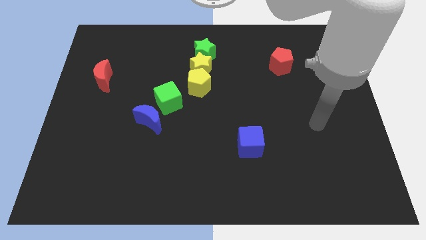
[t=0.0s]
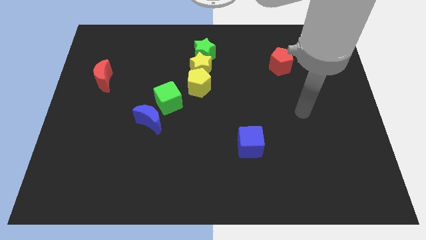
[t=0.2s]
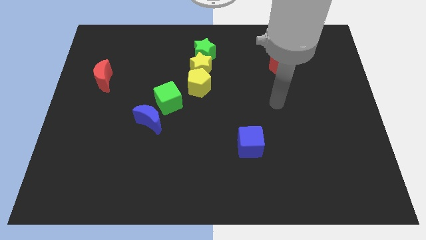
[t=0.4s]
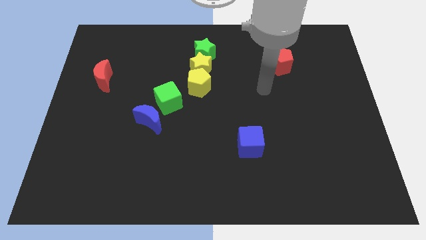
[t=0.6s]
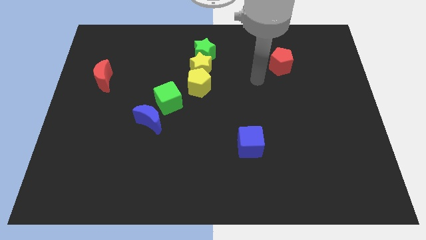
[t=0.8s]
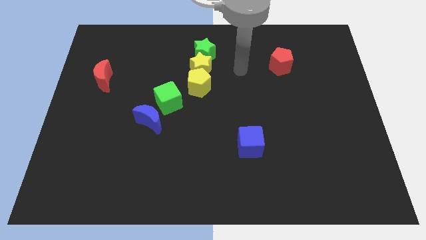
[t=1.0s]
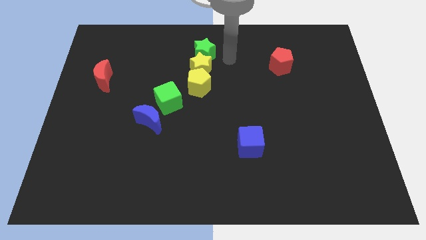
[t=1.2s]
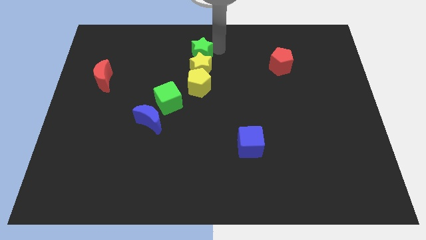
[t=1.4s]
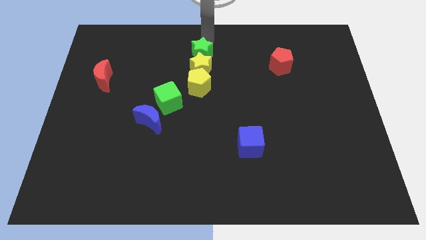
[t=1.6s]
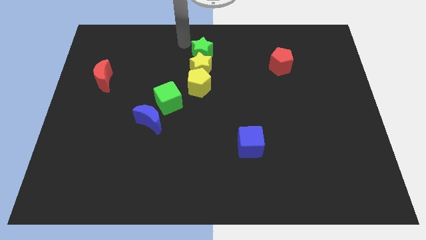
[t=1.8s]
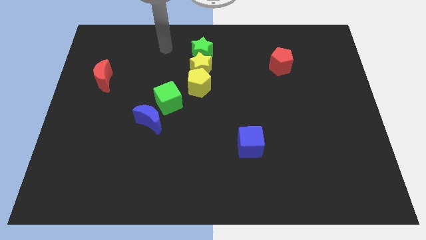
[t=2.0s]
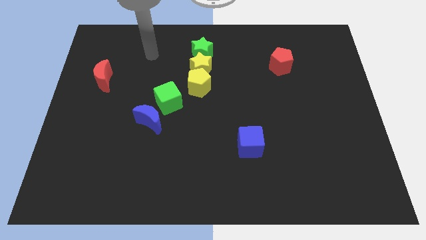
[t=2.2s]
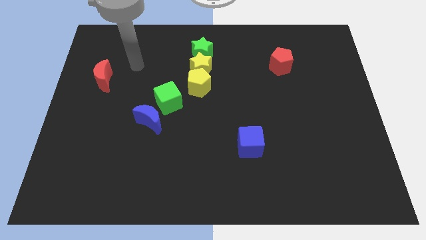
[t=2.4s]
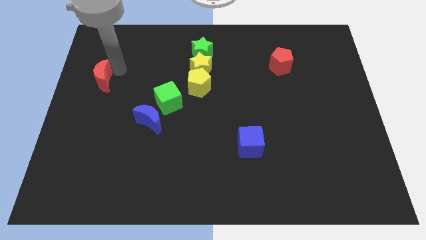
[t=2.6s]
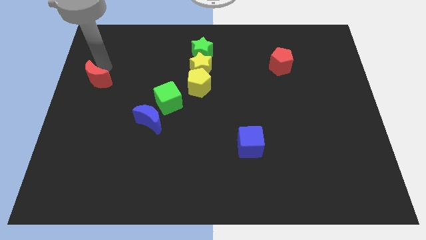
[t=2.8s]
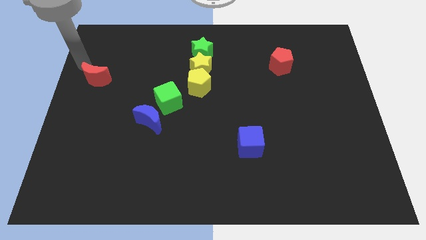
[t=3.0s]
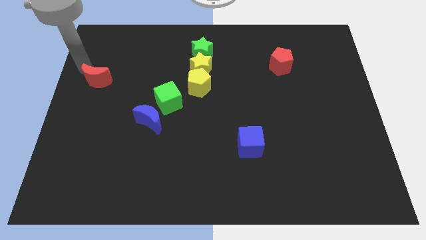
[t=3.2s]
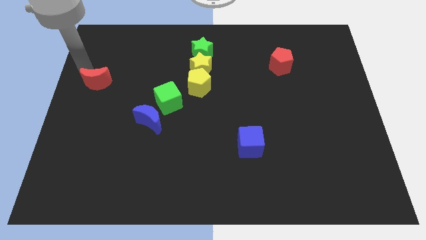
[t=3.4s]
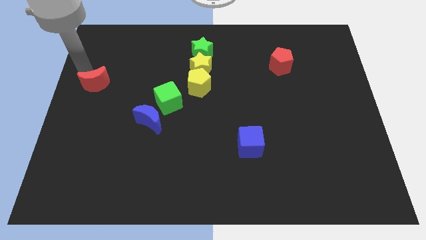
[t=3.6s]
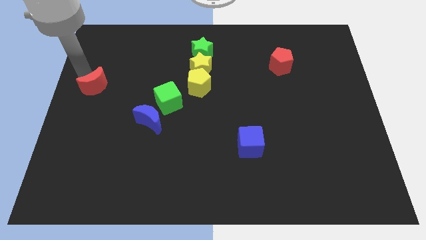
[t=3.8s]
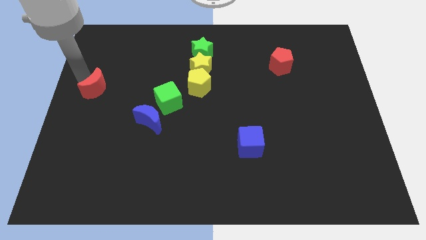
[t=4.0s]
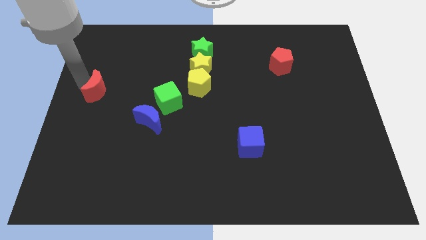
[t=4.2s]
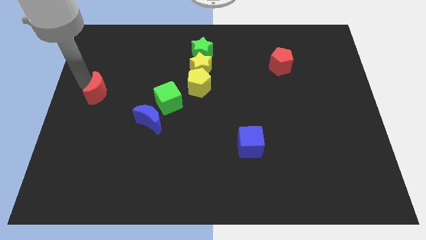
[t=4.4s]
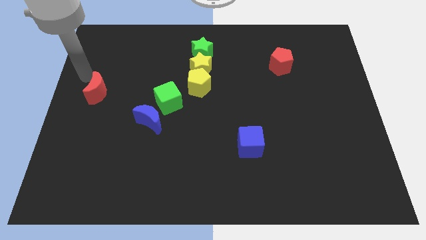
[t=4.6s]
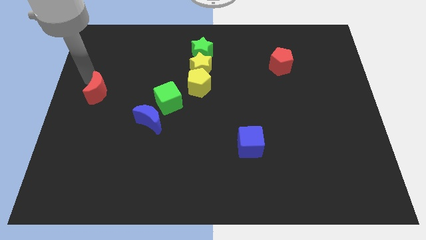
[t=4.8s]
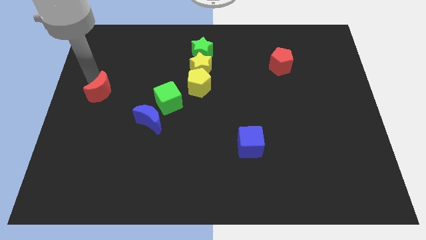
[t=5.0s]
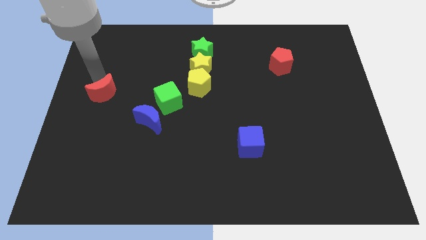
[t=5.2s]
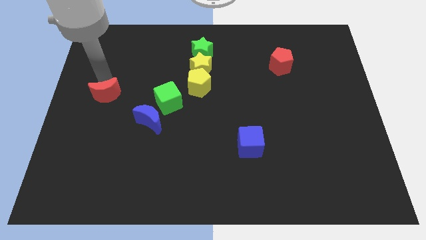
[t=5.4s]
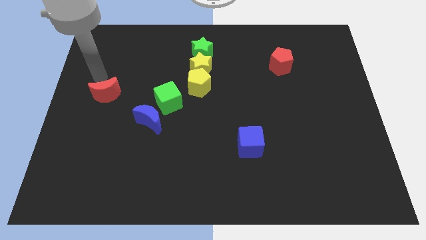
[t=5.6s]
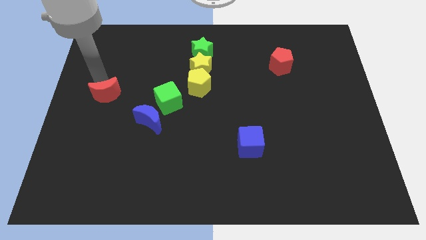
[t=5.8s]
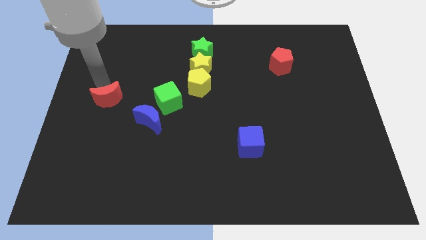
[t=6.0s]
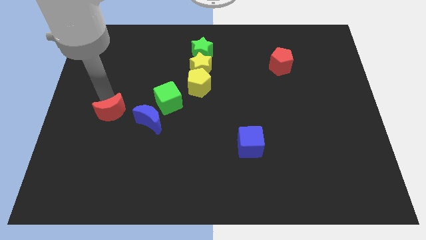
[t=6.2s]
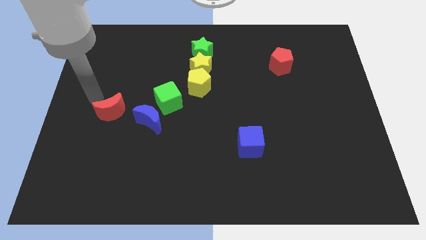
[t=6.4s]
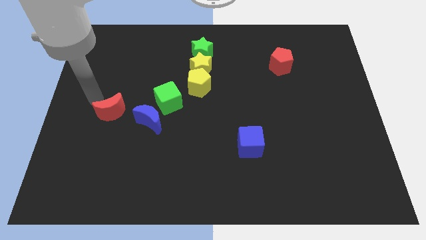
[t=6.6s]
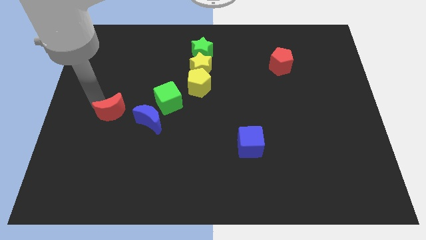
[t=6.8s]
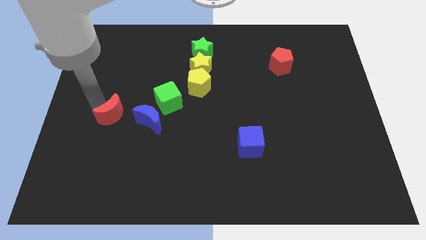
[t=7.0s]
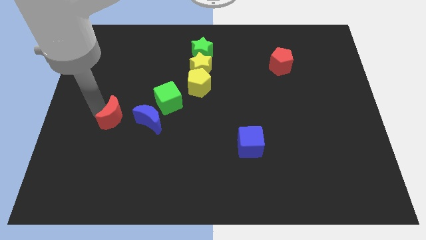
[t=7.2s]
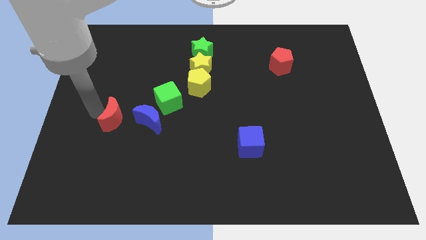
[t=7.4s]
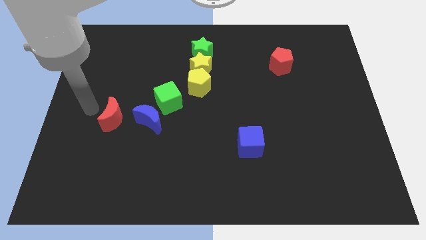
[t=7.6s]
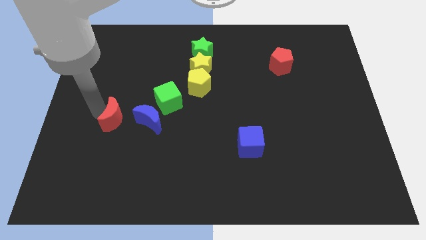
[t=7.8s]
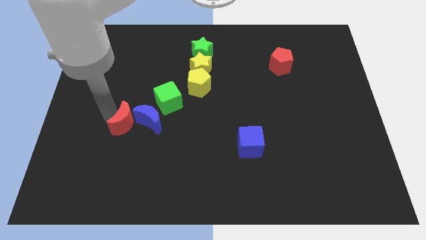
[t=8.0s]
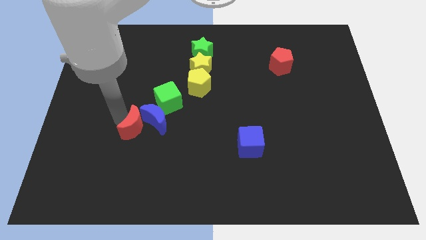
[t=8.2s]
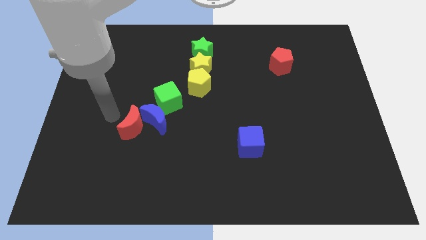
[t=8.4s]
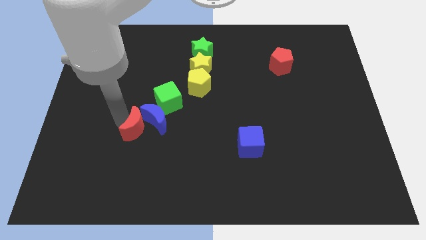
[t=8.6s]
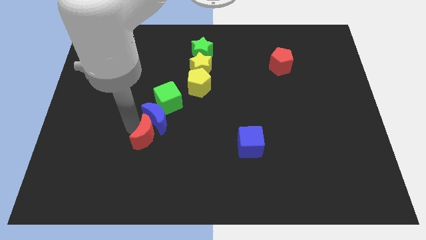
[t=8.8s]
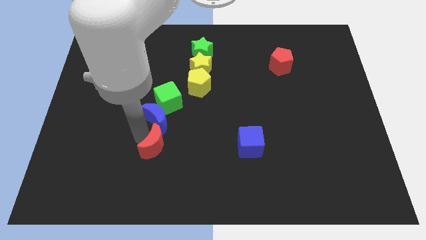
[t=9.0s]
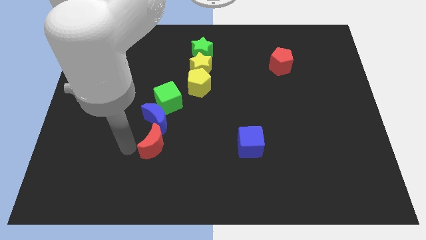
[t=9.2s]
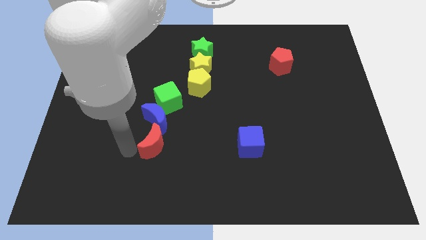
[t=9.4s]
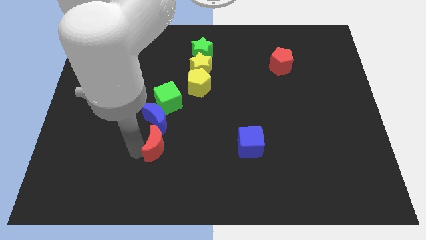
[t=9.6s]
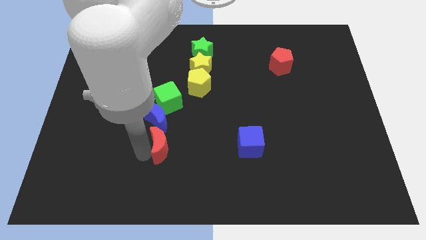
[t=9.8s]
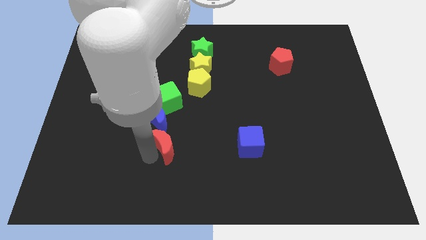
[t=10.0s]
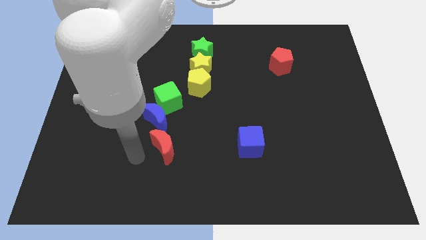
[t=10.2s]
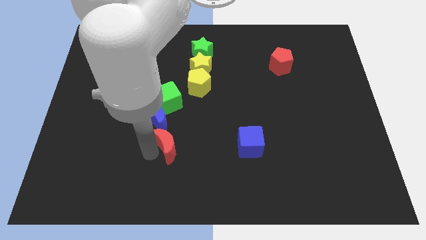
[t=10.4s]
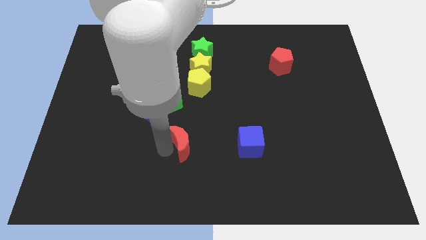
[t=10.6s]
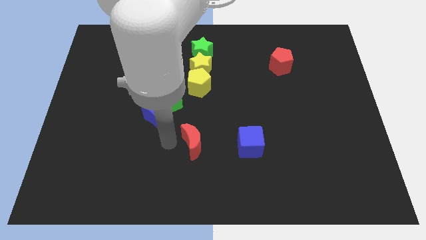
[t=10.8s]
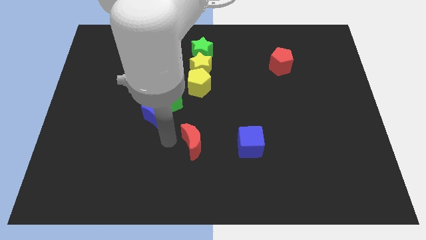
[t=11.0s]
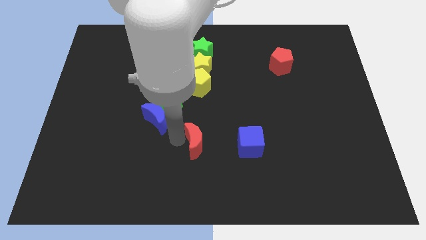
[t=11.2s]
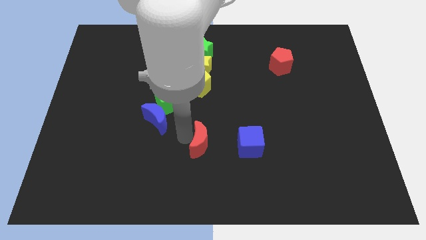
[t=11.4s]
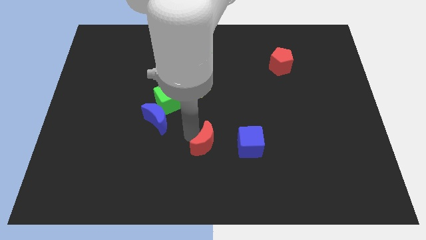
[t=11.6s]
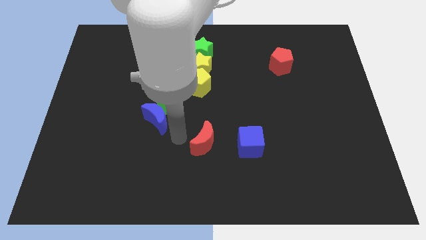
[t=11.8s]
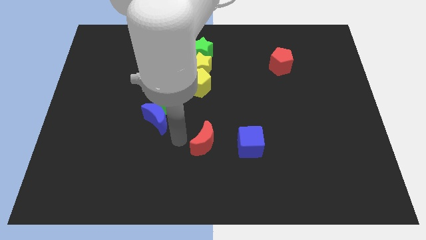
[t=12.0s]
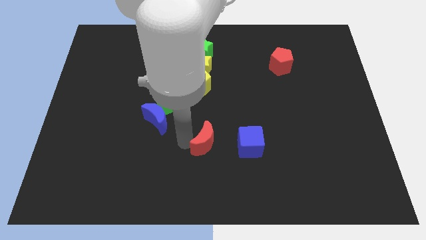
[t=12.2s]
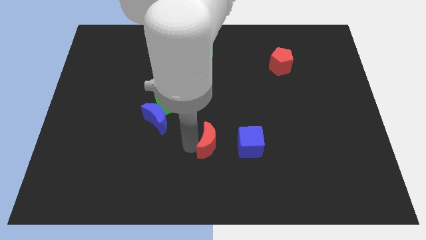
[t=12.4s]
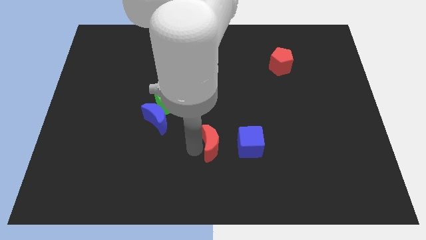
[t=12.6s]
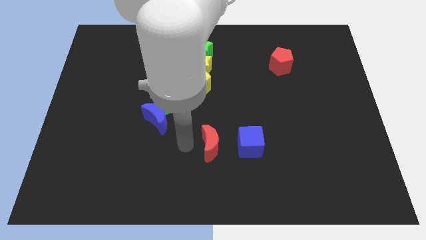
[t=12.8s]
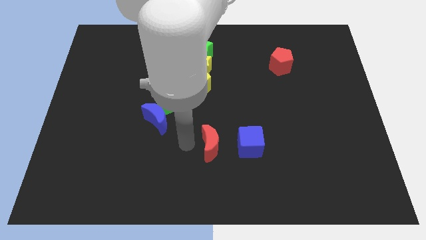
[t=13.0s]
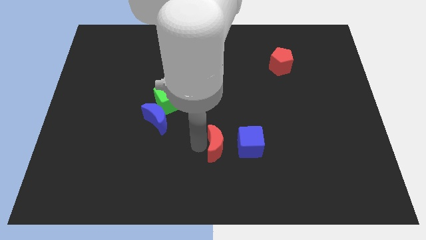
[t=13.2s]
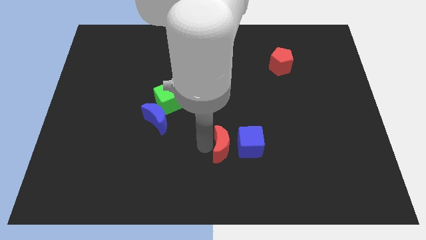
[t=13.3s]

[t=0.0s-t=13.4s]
push the red moon close to the blue cube

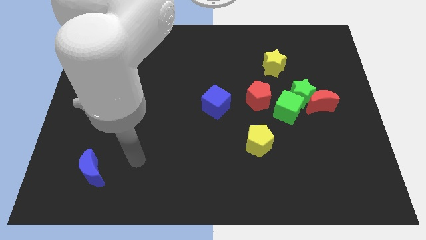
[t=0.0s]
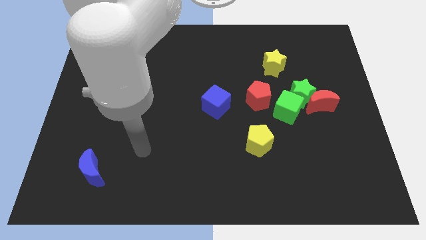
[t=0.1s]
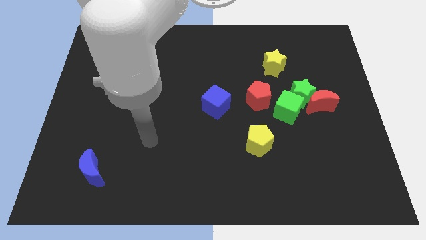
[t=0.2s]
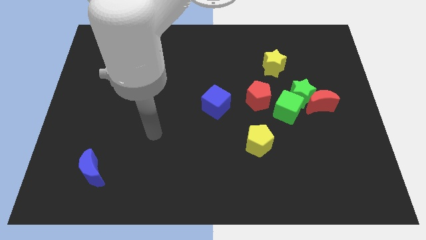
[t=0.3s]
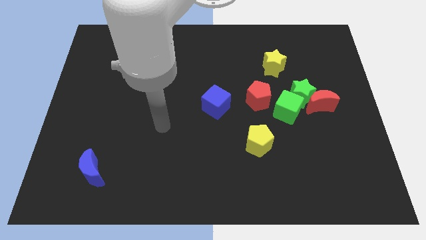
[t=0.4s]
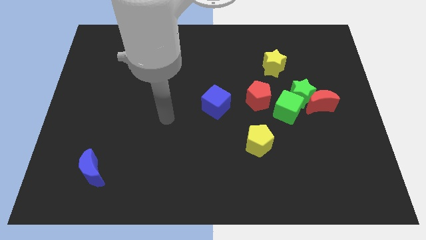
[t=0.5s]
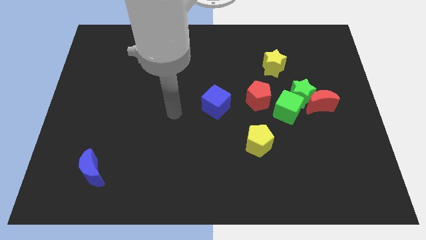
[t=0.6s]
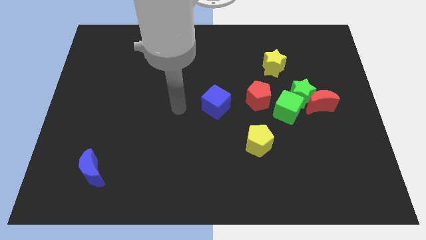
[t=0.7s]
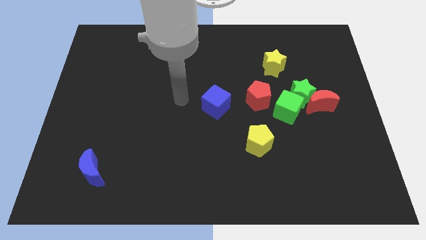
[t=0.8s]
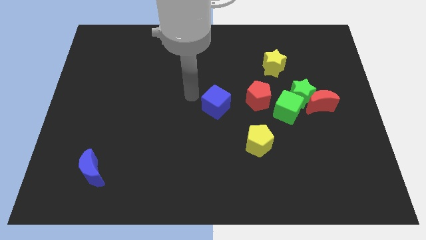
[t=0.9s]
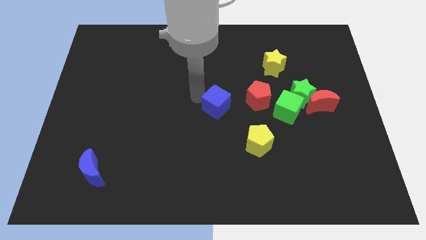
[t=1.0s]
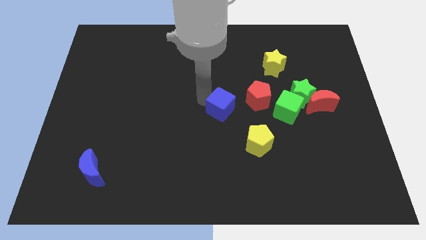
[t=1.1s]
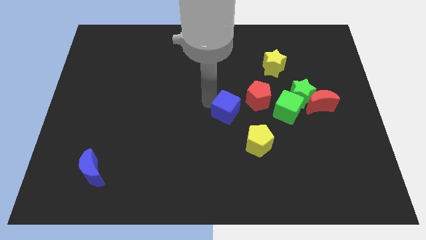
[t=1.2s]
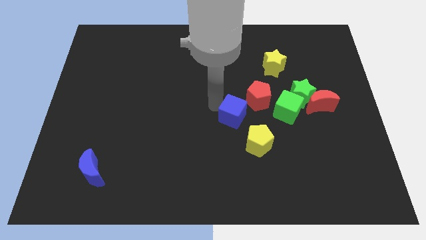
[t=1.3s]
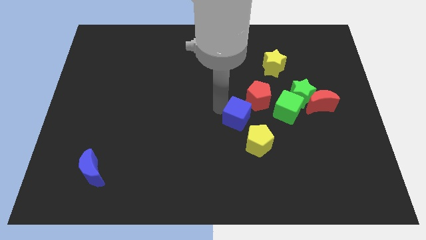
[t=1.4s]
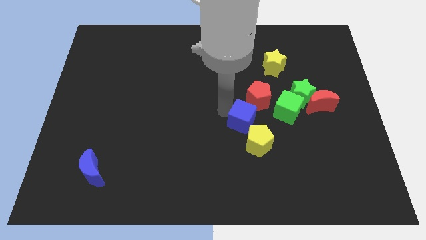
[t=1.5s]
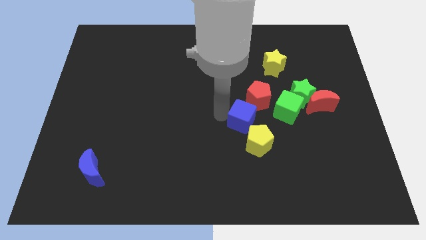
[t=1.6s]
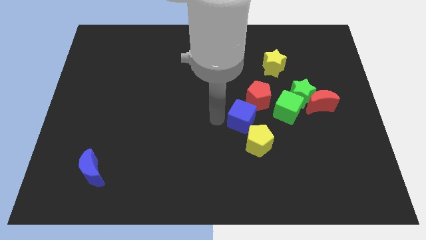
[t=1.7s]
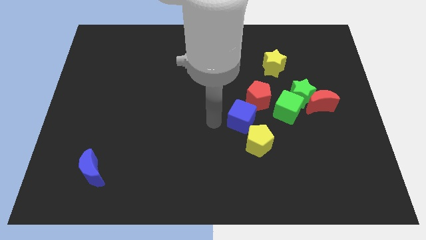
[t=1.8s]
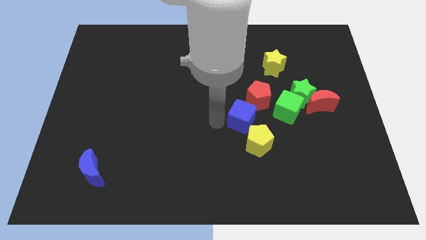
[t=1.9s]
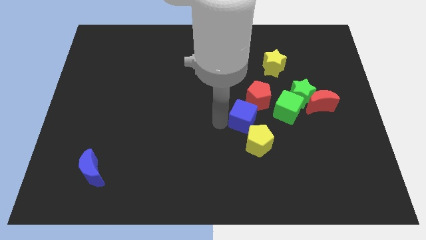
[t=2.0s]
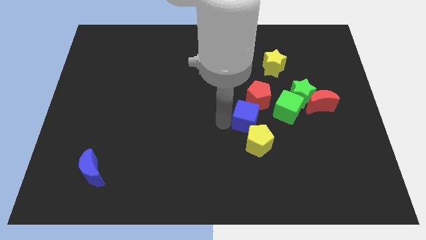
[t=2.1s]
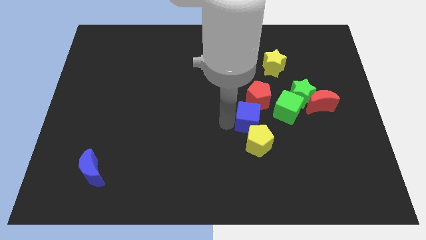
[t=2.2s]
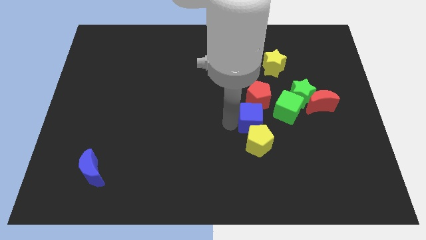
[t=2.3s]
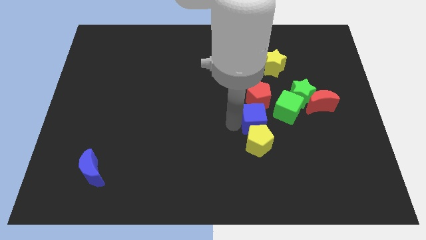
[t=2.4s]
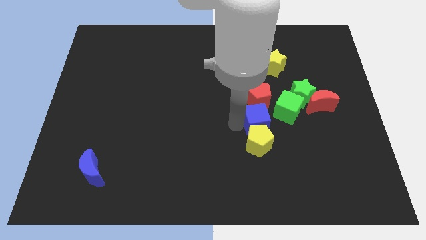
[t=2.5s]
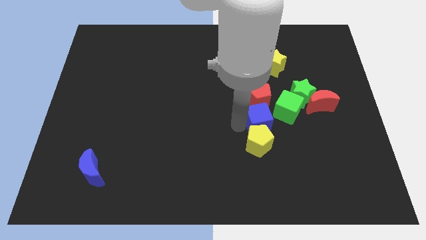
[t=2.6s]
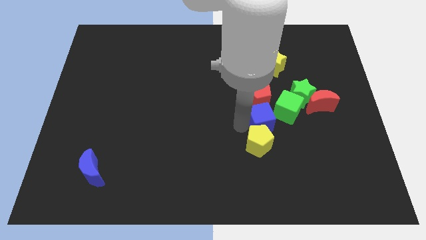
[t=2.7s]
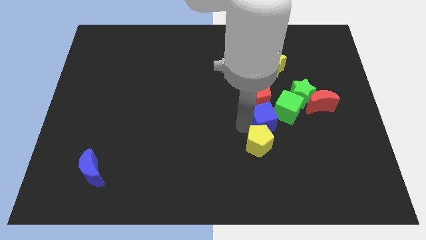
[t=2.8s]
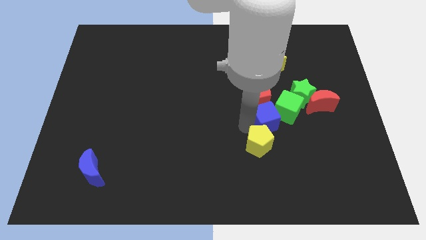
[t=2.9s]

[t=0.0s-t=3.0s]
slide the blue cube to the green cube
